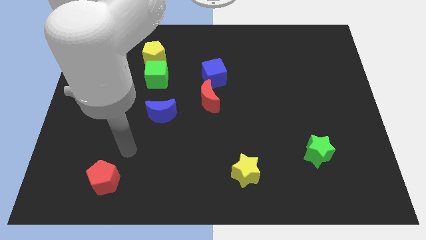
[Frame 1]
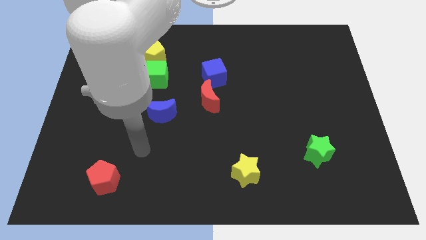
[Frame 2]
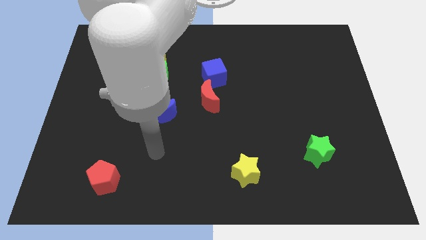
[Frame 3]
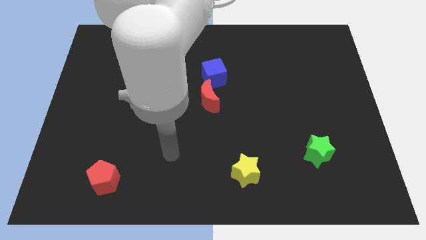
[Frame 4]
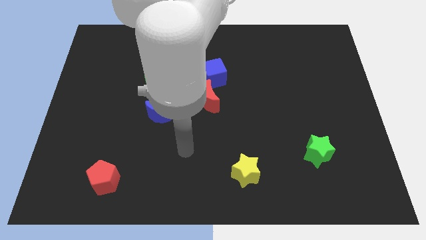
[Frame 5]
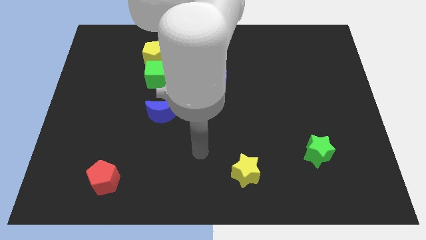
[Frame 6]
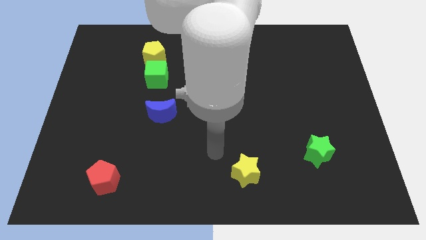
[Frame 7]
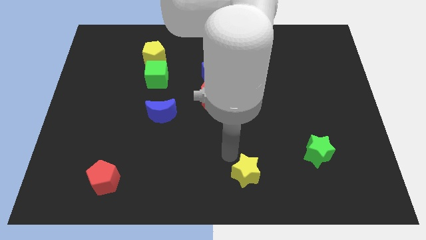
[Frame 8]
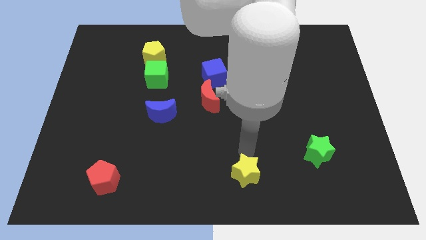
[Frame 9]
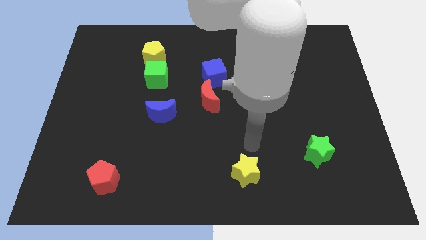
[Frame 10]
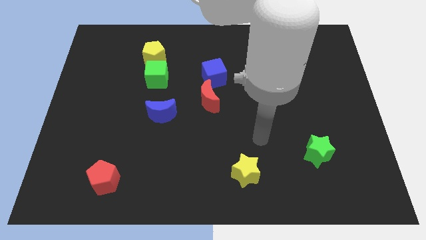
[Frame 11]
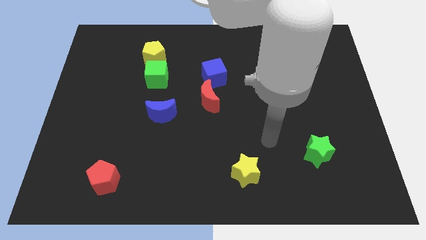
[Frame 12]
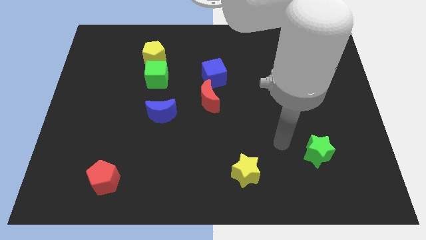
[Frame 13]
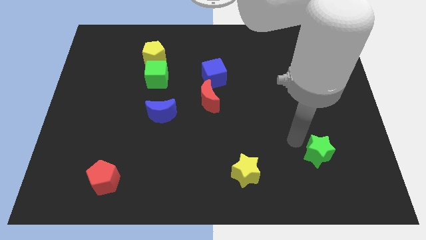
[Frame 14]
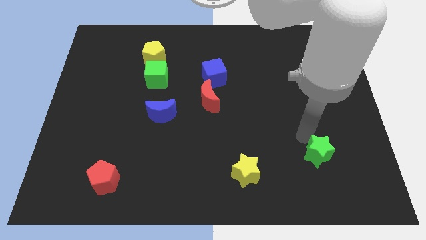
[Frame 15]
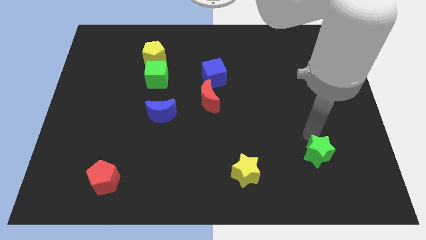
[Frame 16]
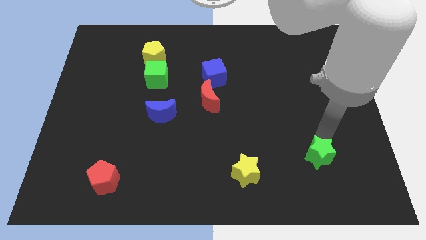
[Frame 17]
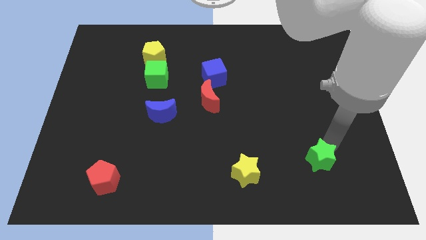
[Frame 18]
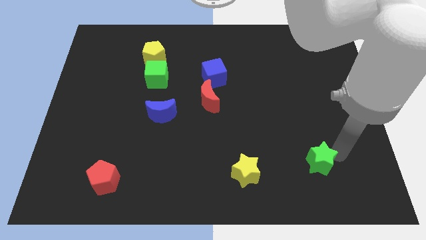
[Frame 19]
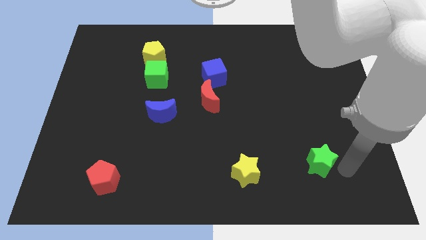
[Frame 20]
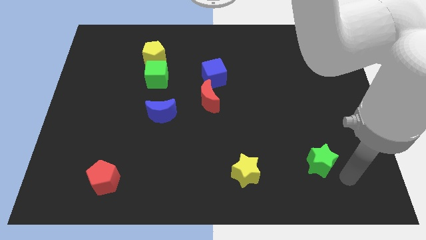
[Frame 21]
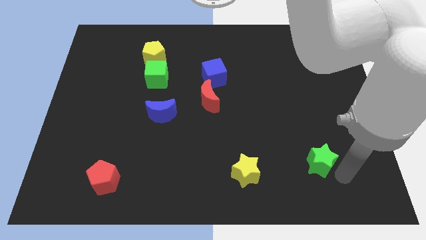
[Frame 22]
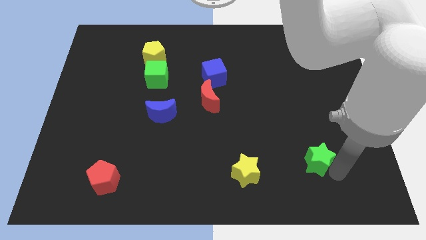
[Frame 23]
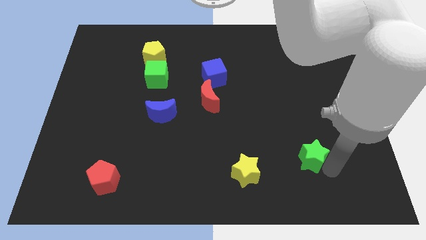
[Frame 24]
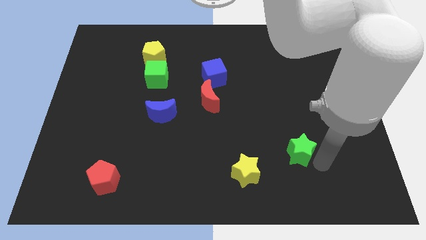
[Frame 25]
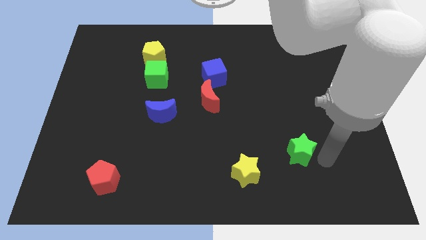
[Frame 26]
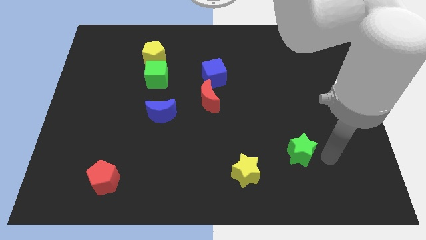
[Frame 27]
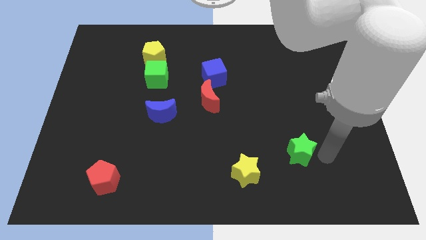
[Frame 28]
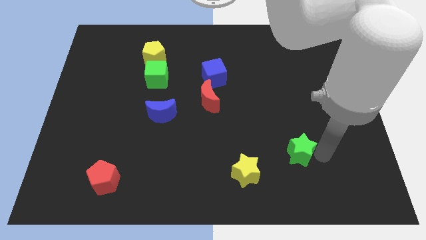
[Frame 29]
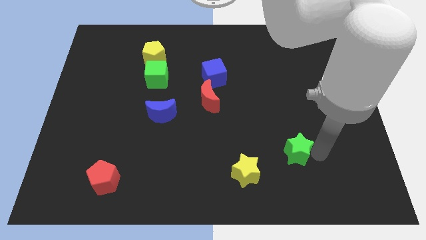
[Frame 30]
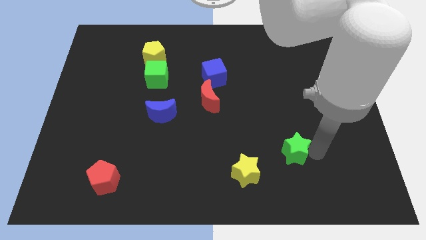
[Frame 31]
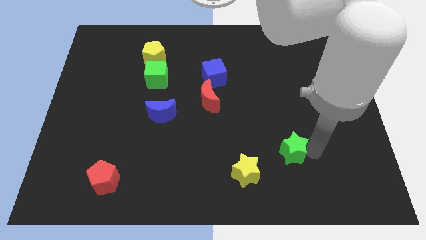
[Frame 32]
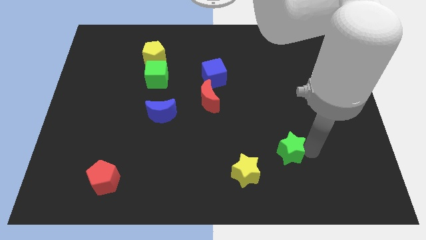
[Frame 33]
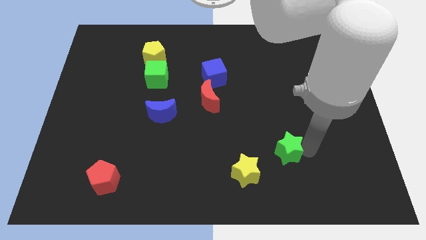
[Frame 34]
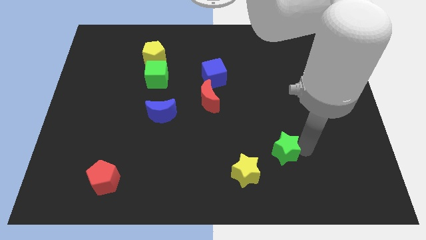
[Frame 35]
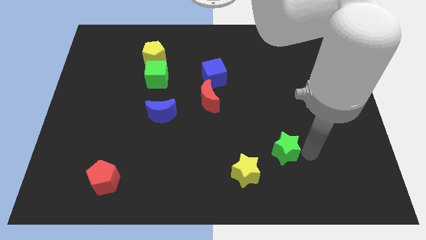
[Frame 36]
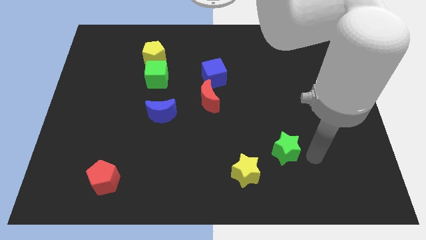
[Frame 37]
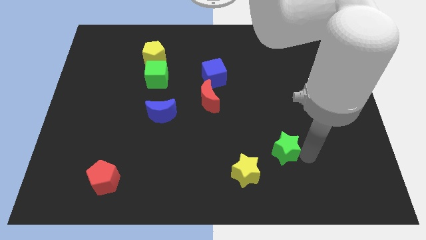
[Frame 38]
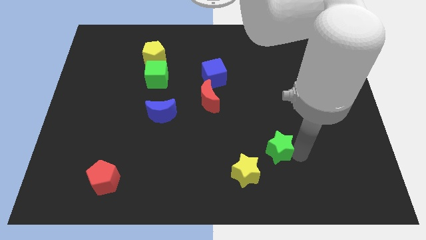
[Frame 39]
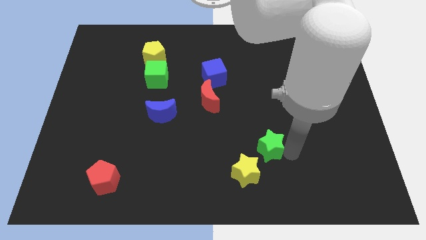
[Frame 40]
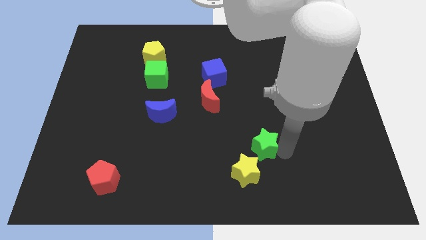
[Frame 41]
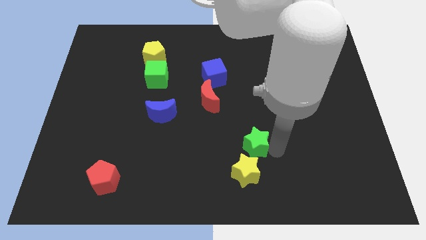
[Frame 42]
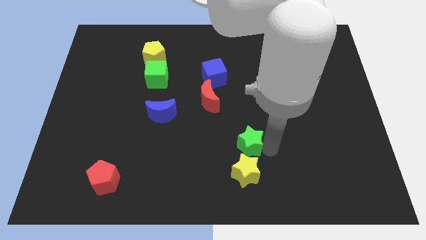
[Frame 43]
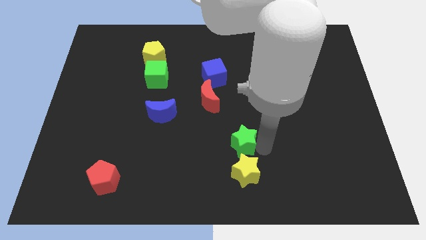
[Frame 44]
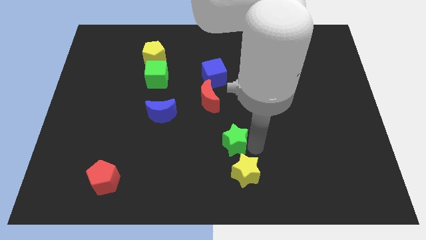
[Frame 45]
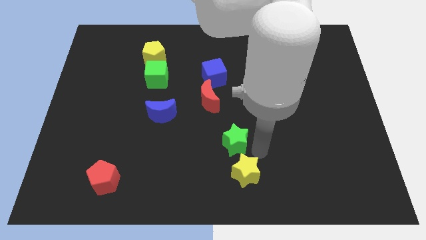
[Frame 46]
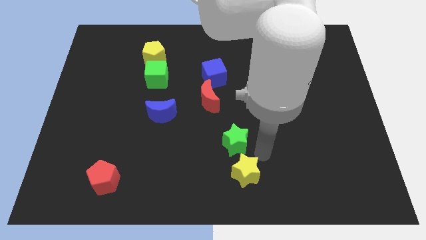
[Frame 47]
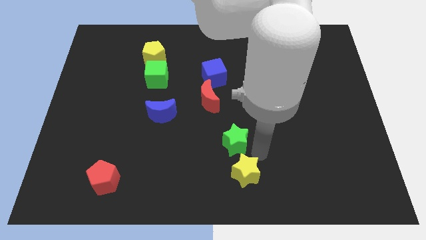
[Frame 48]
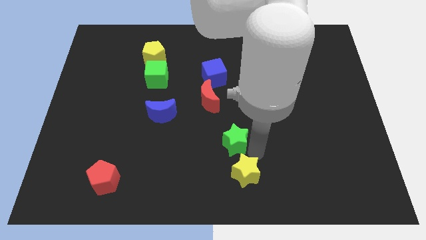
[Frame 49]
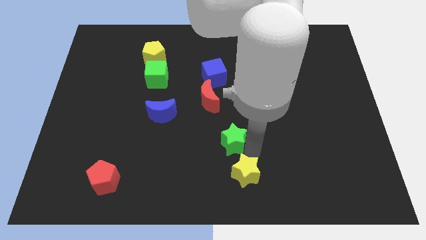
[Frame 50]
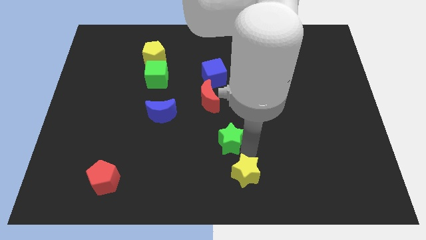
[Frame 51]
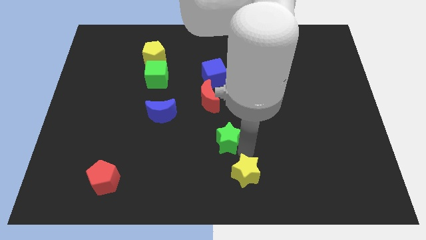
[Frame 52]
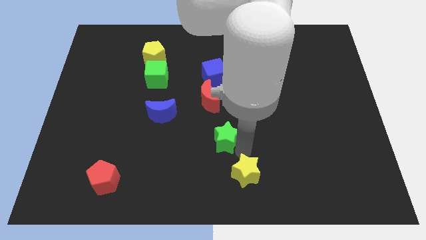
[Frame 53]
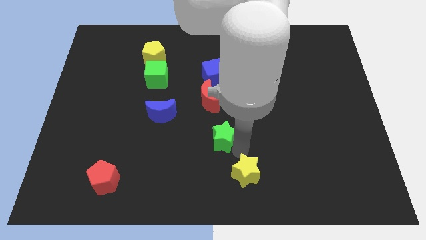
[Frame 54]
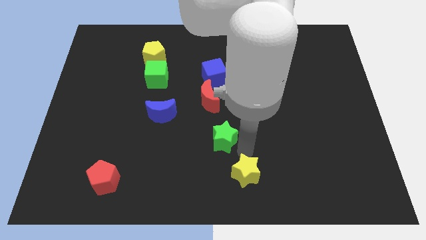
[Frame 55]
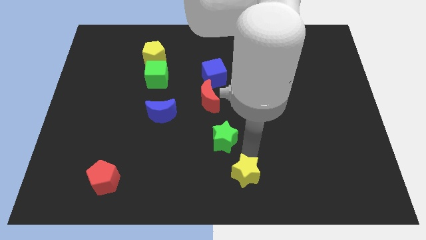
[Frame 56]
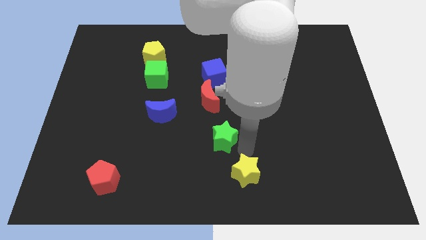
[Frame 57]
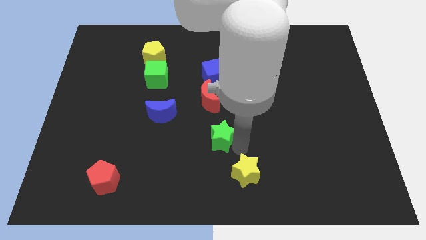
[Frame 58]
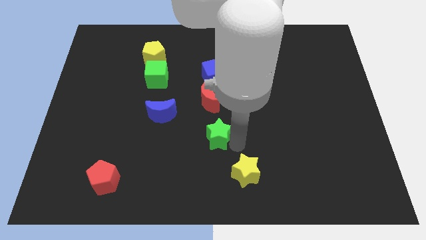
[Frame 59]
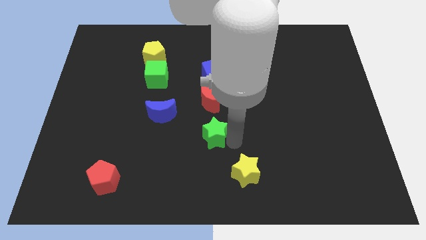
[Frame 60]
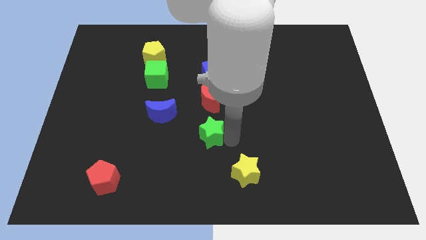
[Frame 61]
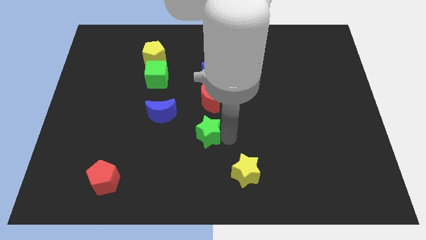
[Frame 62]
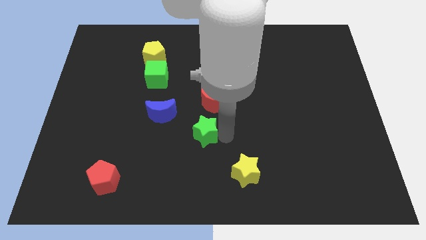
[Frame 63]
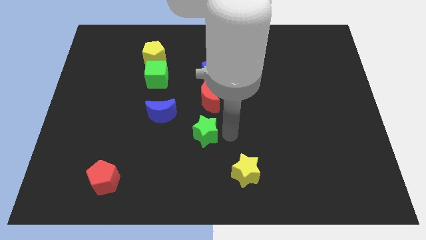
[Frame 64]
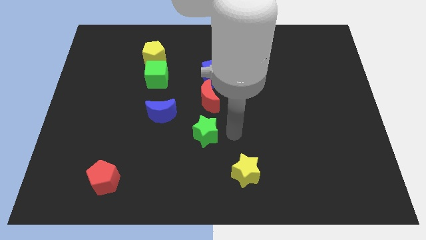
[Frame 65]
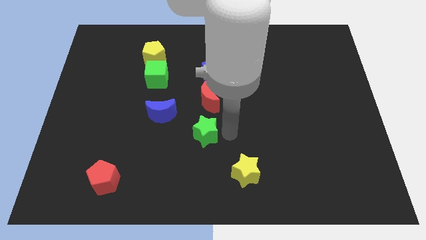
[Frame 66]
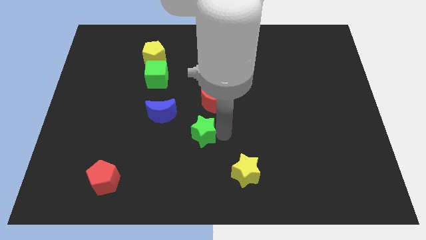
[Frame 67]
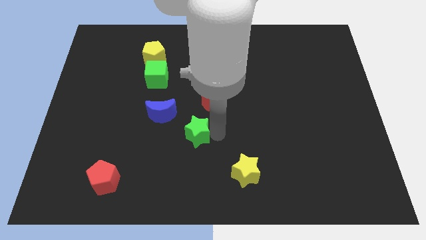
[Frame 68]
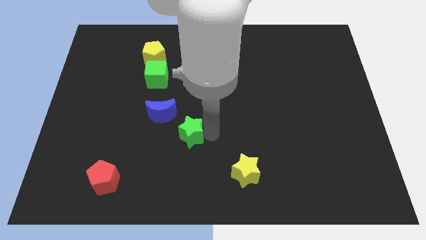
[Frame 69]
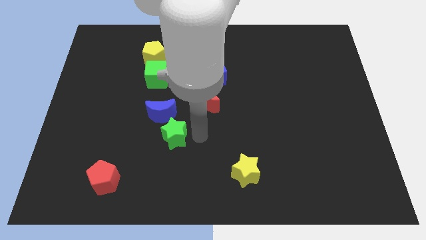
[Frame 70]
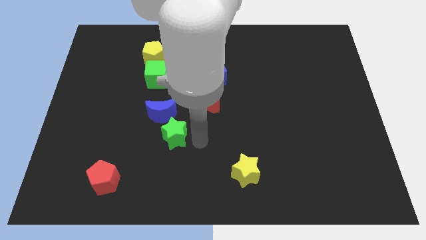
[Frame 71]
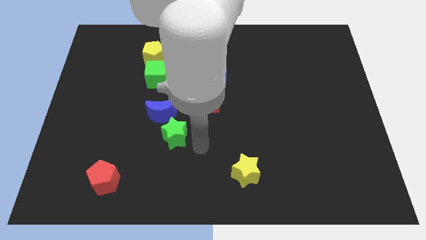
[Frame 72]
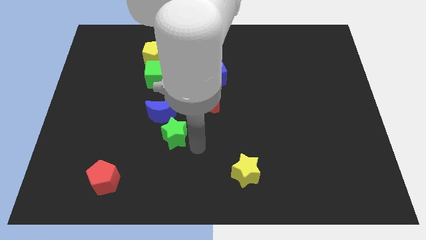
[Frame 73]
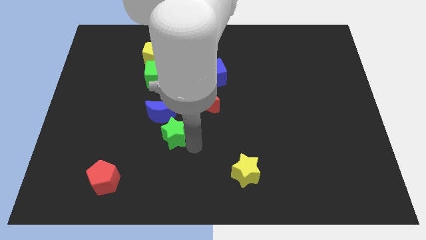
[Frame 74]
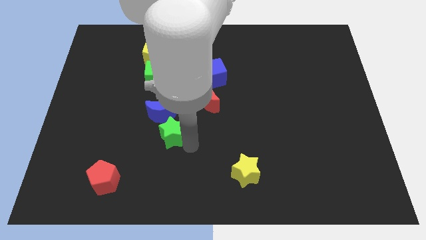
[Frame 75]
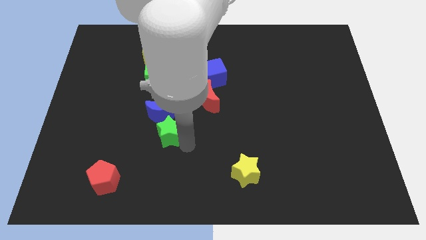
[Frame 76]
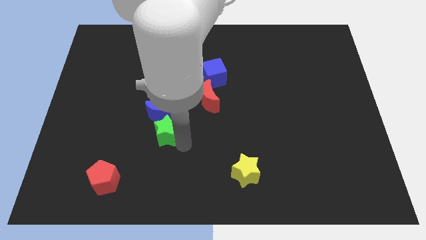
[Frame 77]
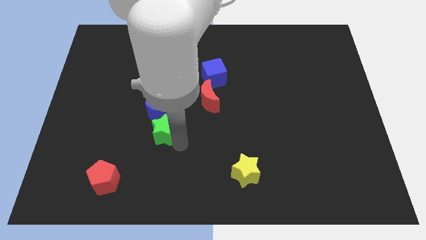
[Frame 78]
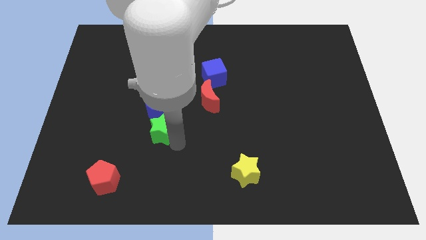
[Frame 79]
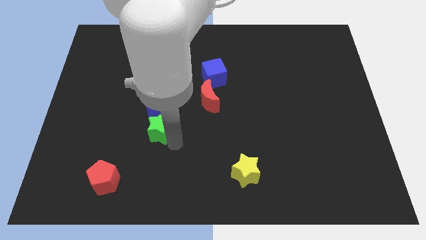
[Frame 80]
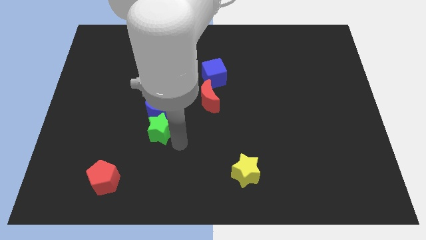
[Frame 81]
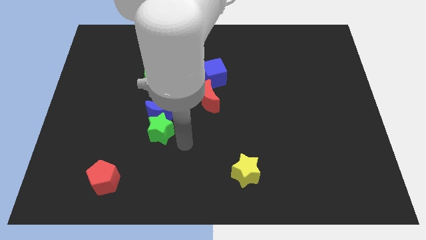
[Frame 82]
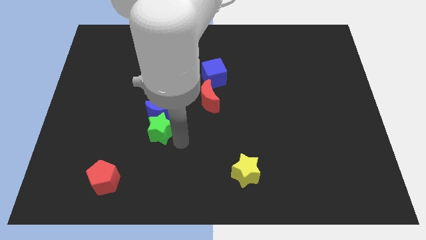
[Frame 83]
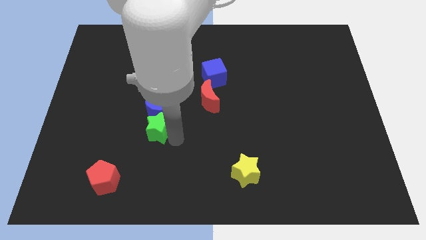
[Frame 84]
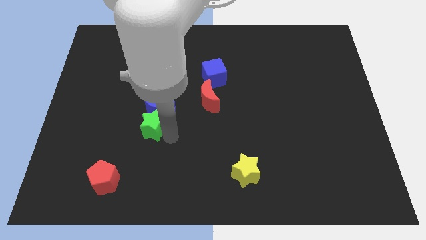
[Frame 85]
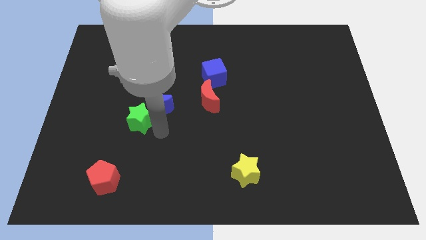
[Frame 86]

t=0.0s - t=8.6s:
push the green star left of the blue moon
